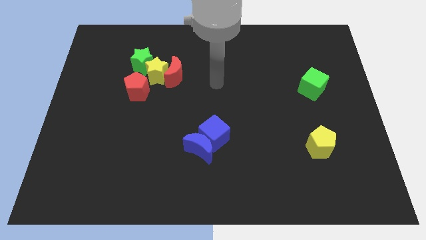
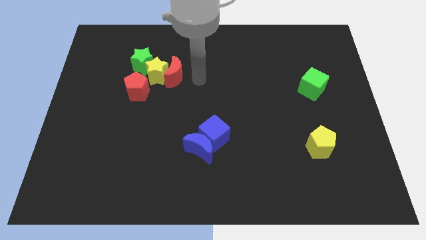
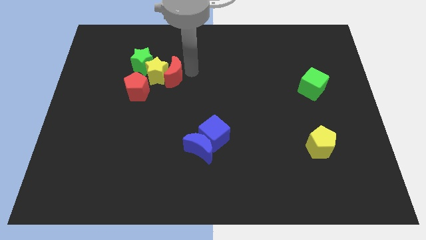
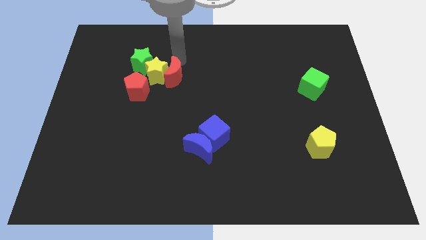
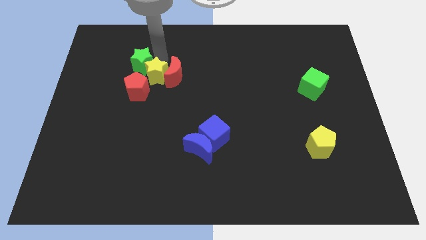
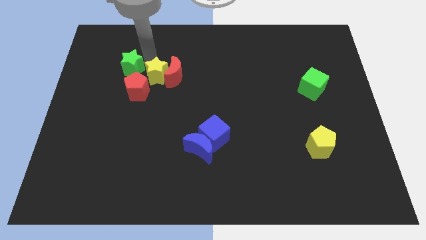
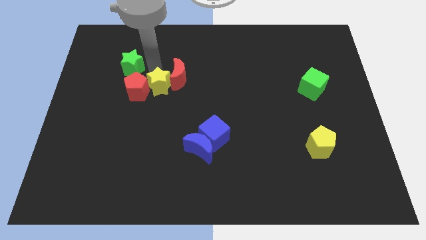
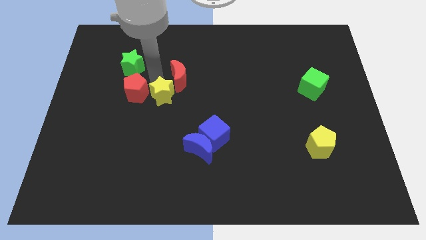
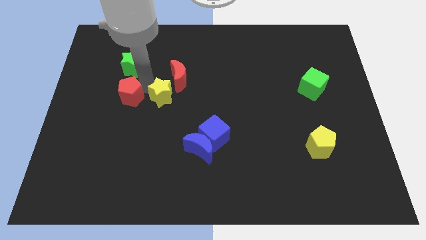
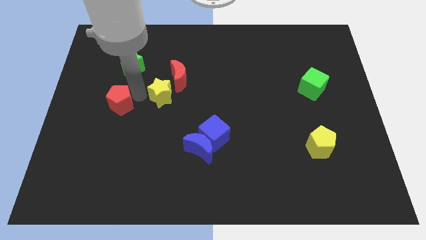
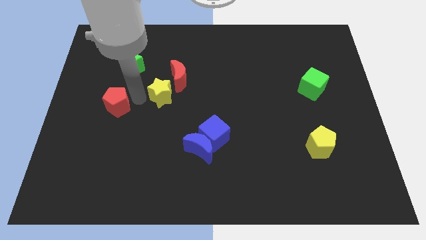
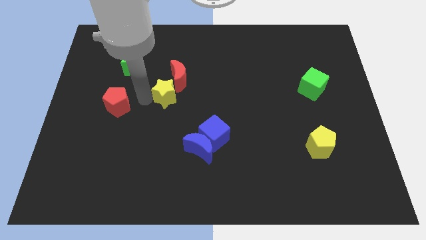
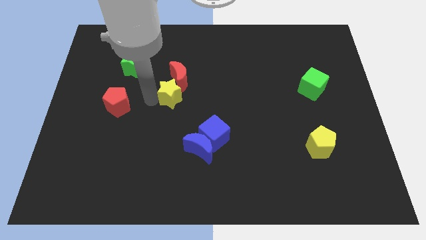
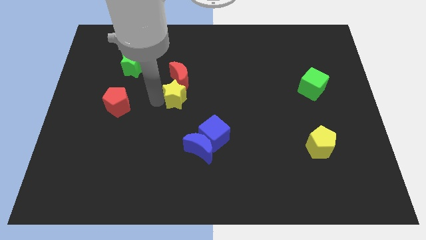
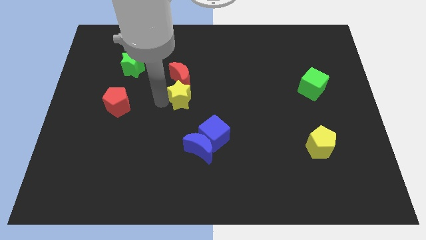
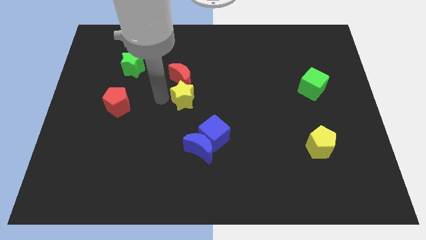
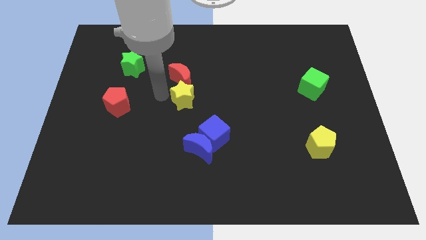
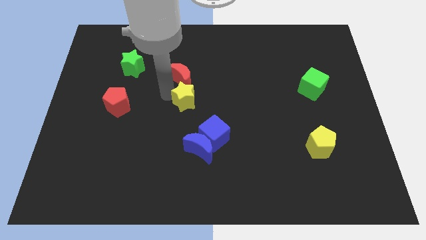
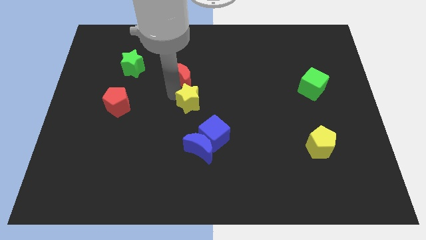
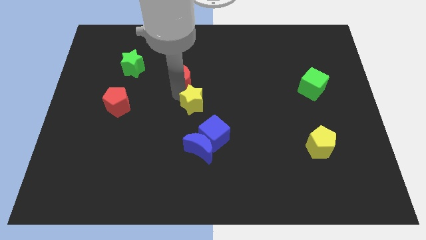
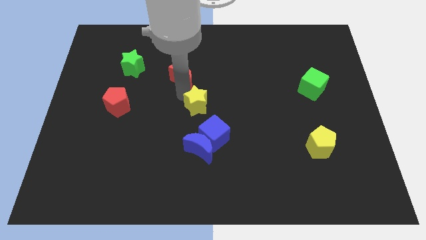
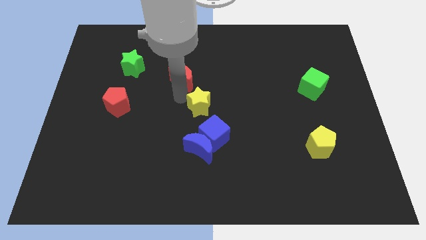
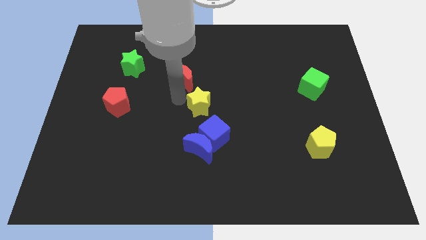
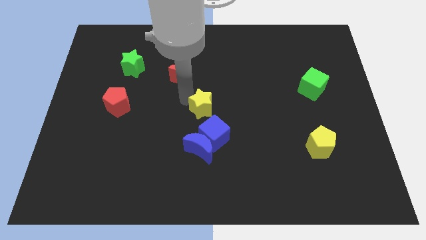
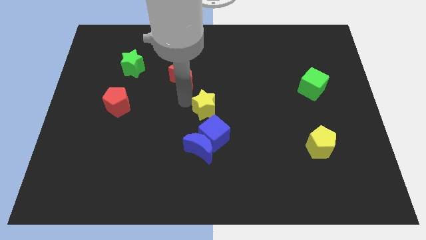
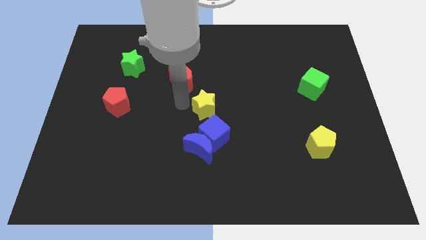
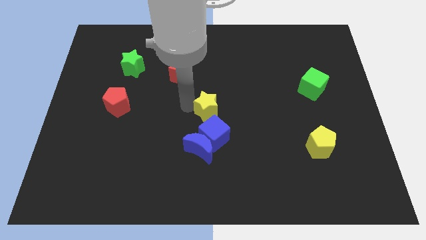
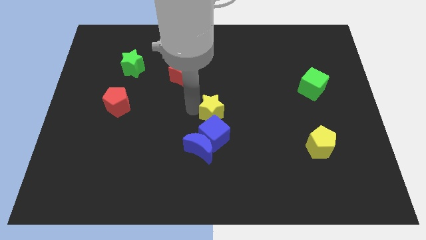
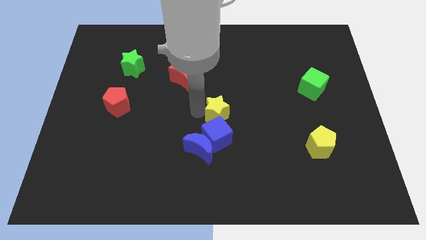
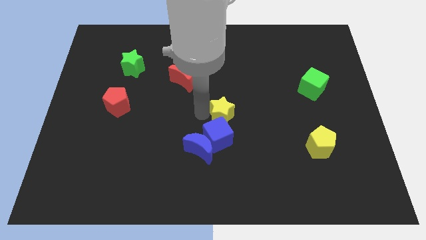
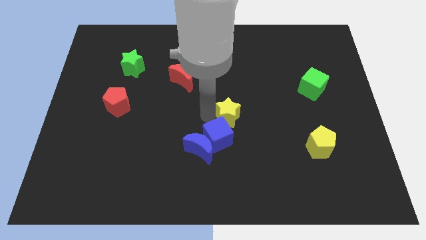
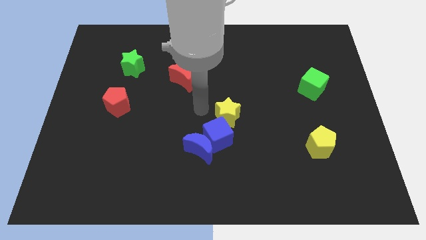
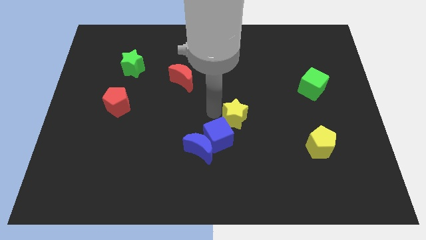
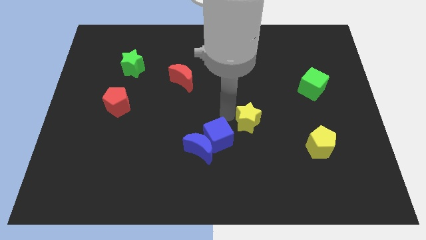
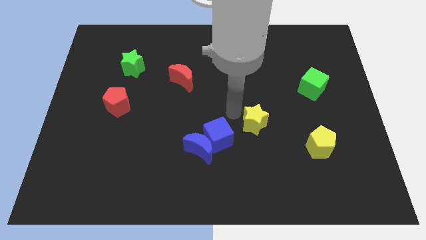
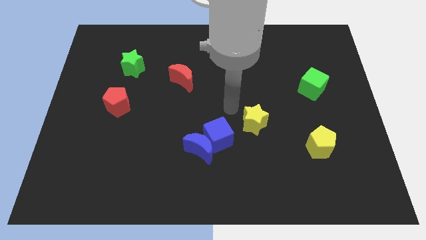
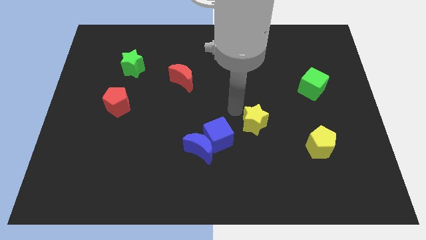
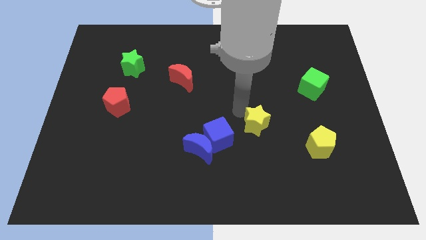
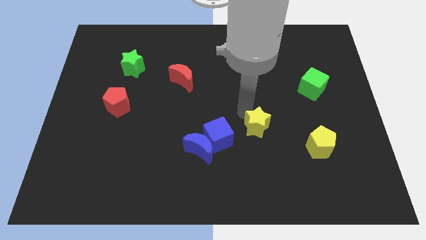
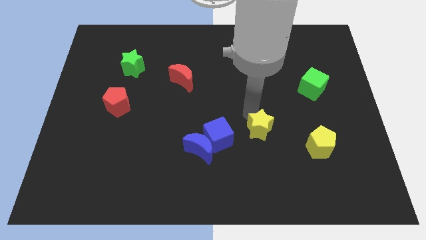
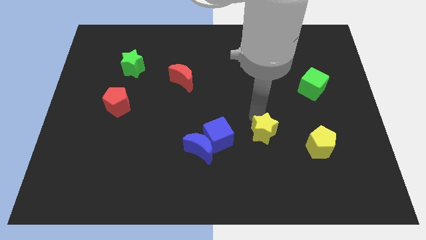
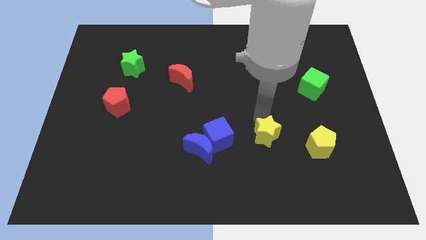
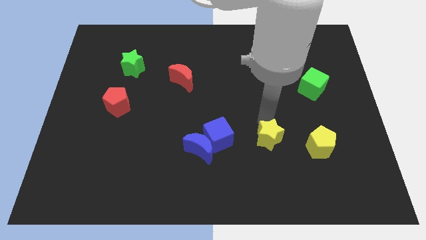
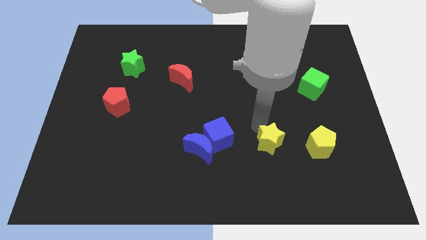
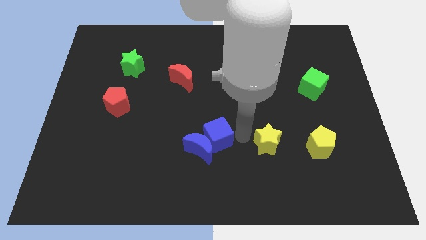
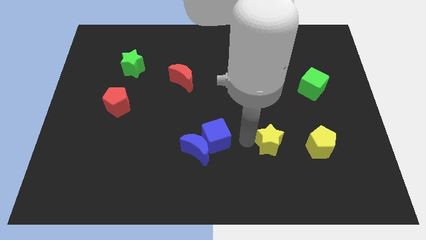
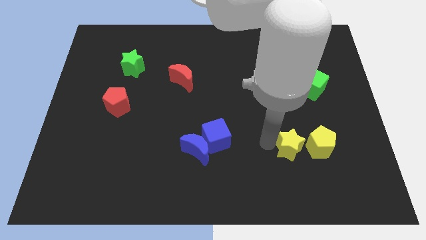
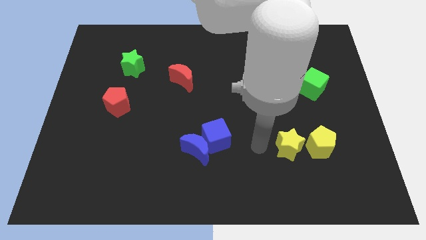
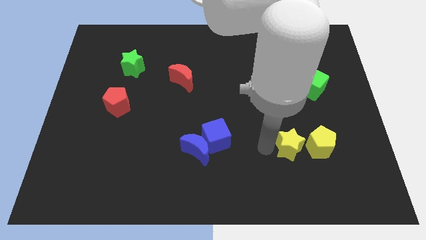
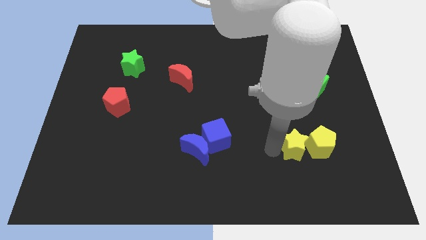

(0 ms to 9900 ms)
slide the yellow star close to the yellow pentagon

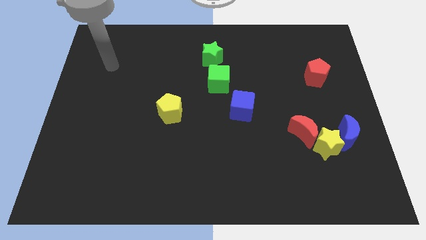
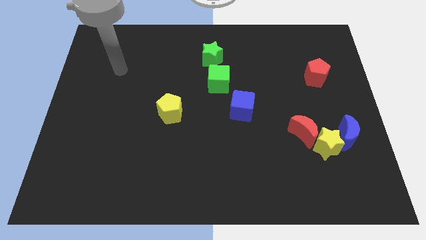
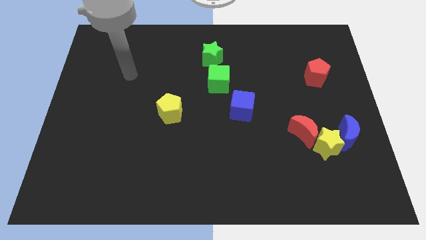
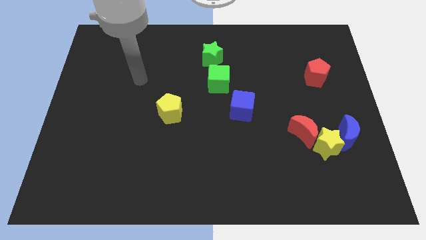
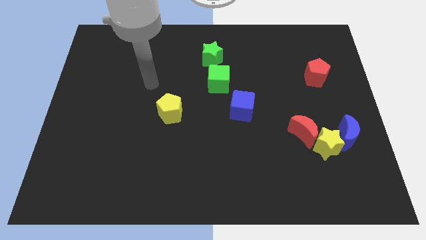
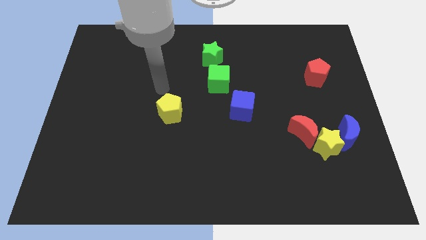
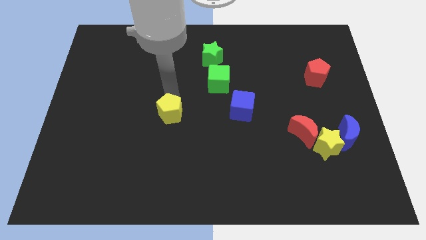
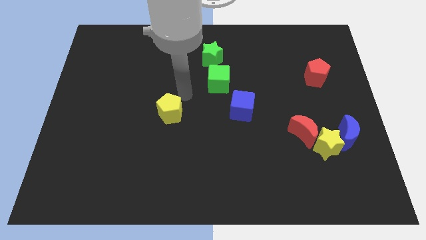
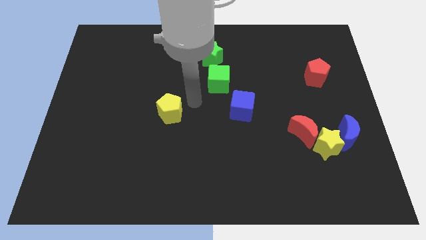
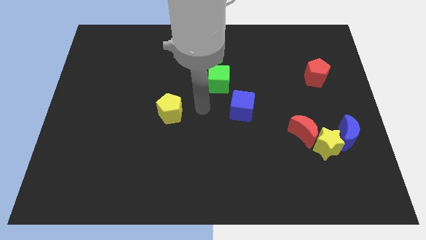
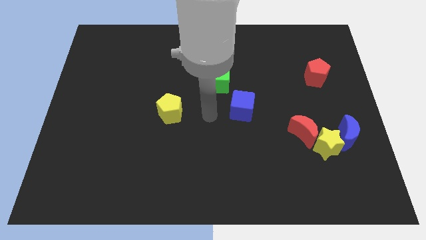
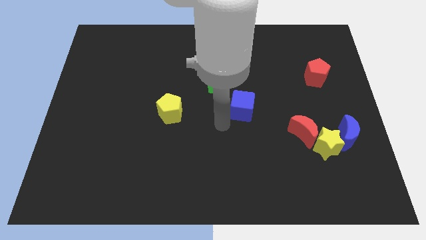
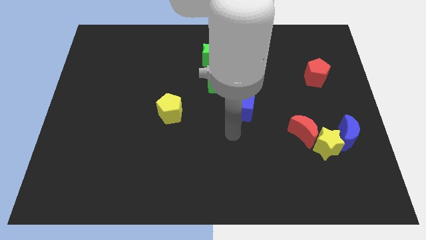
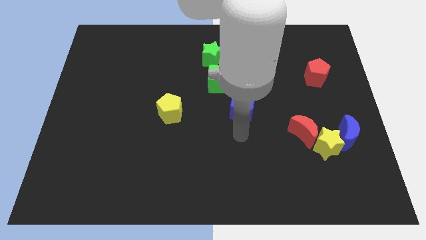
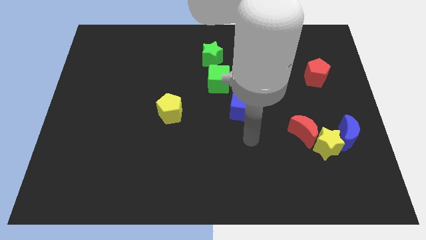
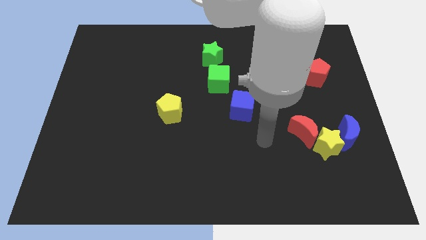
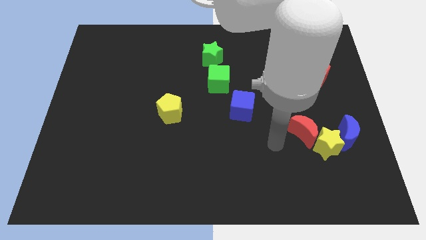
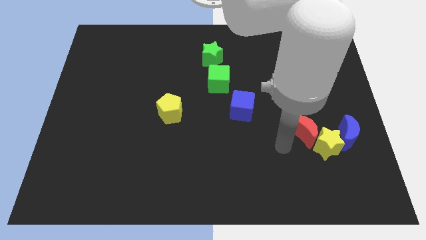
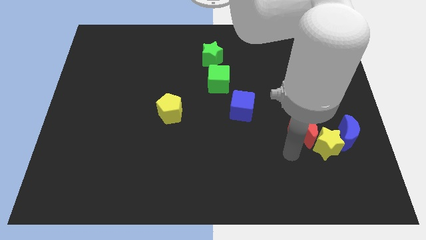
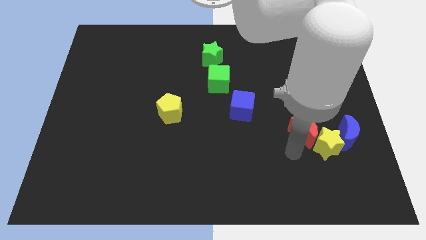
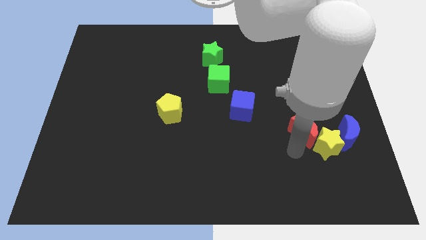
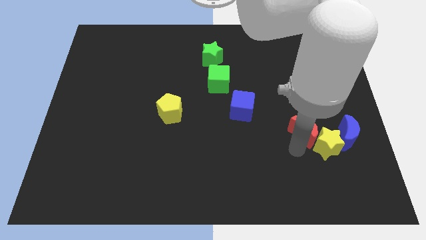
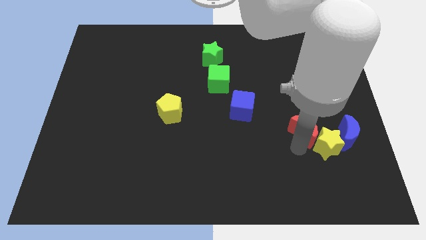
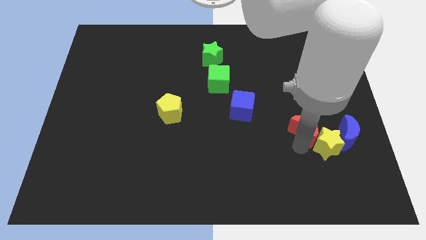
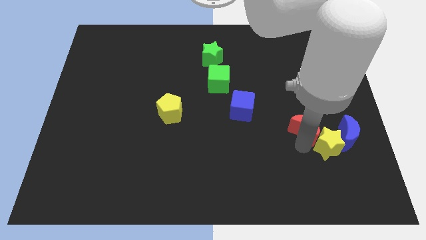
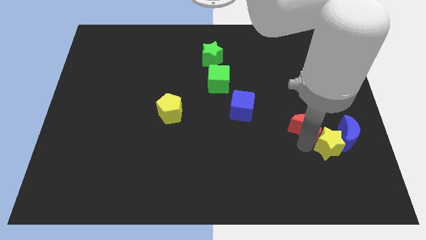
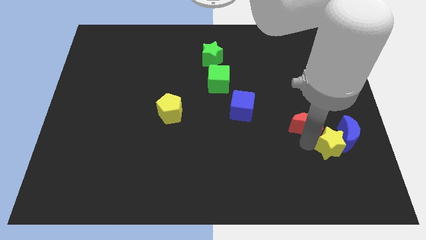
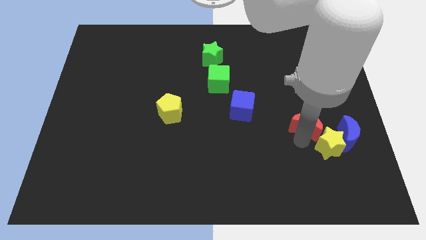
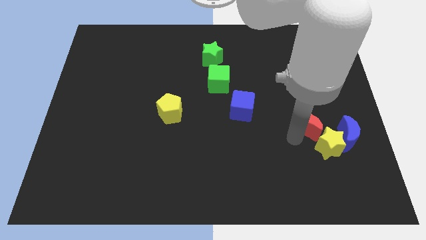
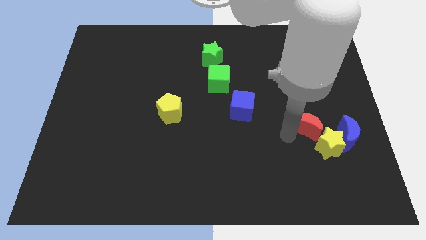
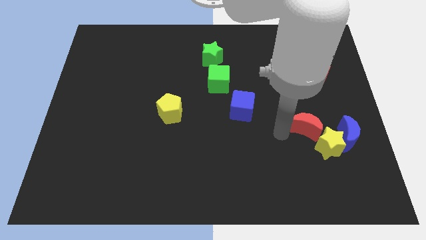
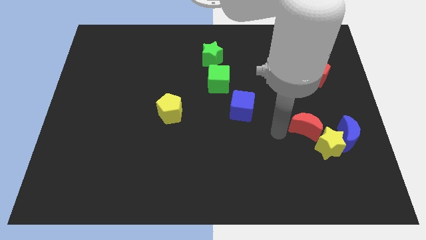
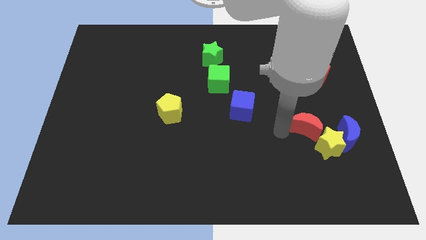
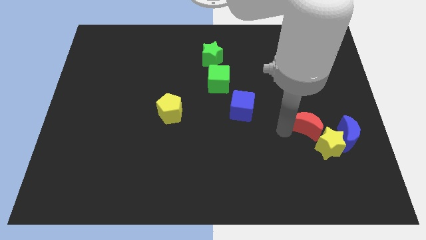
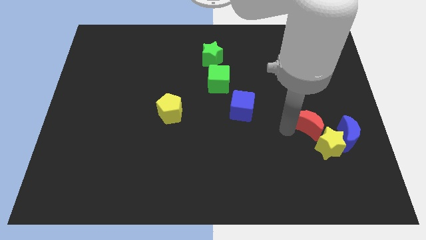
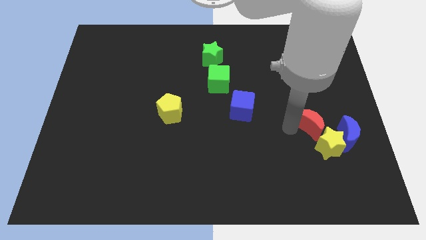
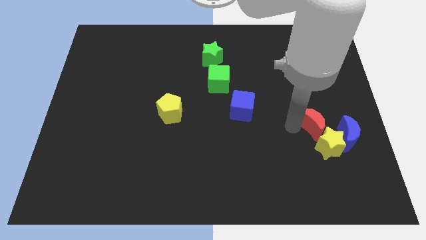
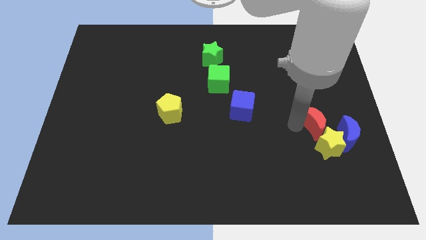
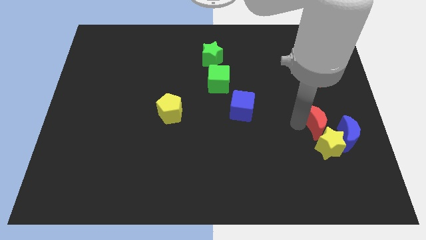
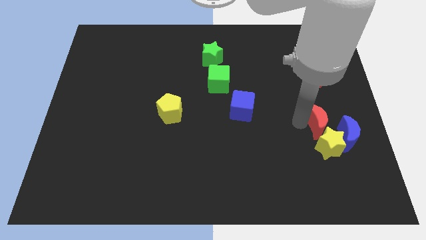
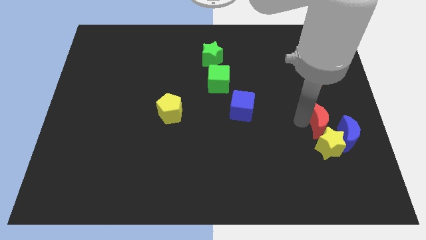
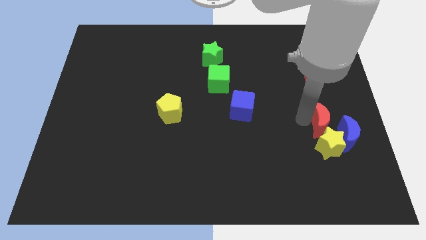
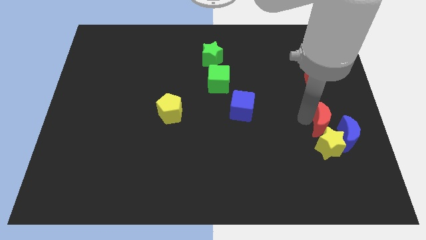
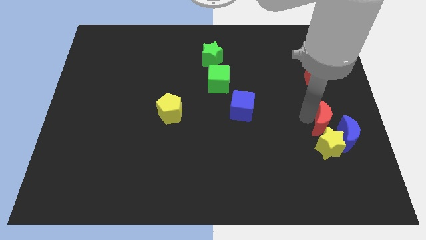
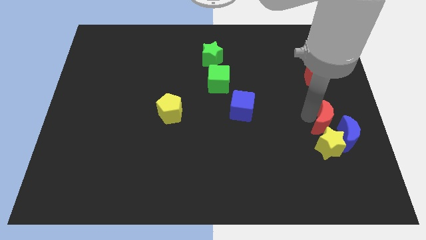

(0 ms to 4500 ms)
slide the red moon to the blue moon
